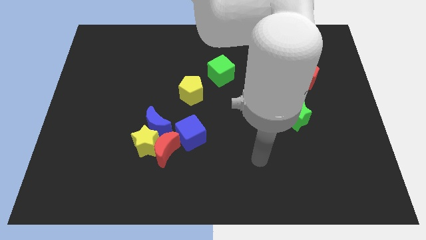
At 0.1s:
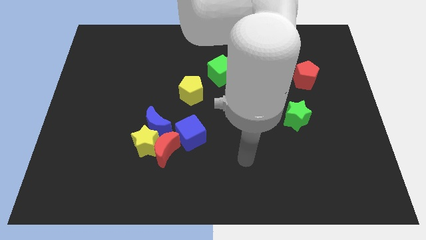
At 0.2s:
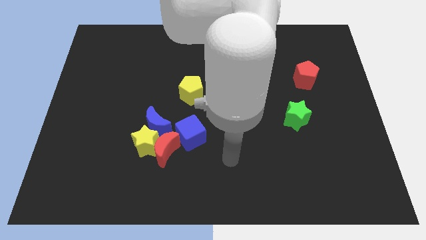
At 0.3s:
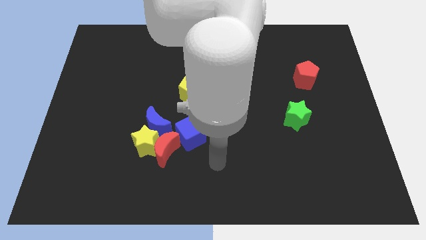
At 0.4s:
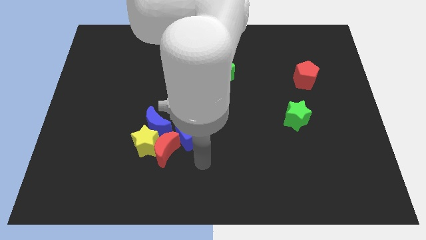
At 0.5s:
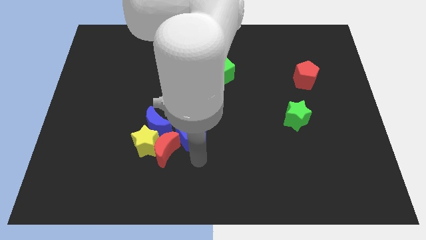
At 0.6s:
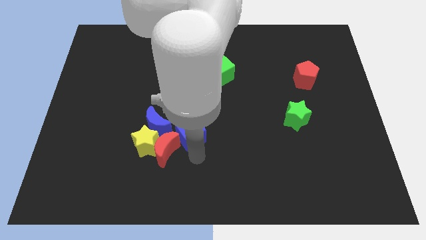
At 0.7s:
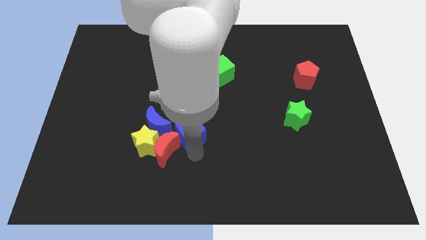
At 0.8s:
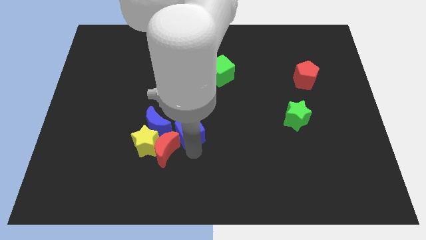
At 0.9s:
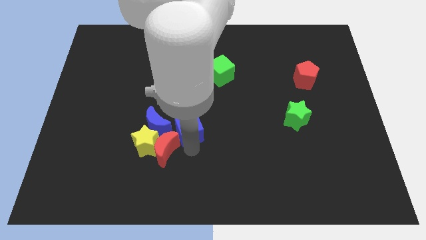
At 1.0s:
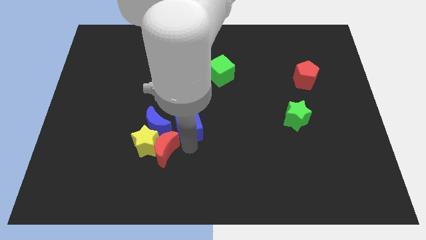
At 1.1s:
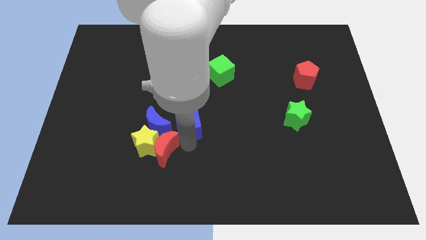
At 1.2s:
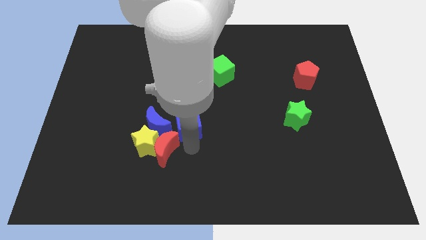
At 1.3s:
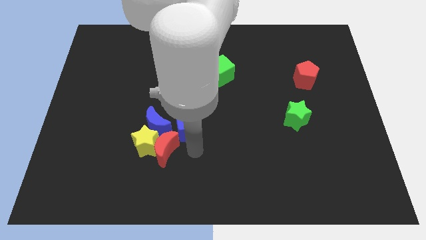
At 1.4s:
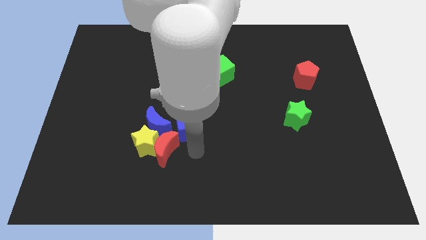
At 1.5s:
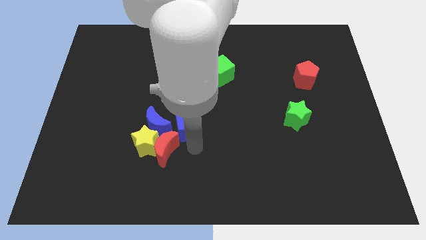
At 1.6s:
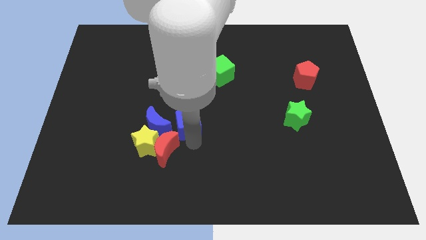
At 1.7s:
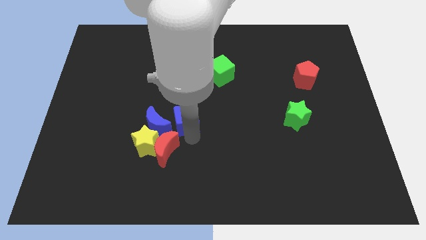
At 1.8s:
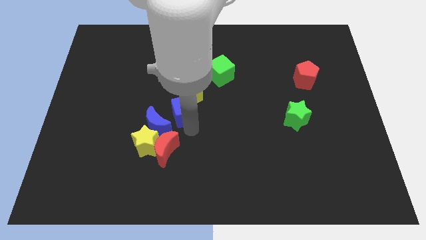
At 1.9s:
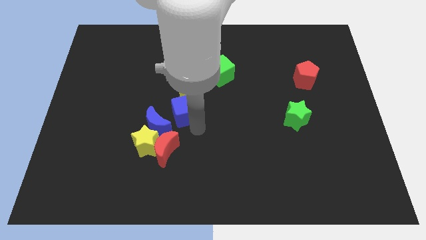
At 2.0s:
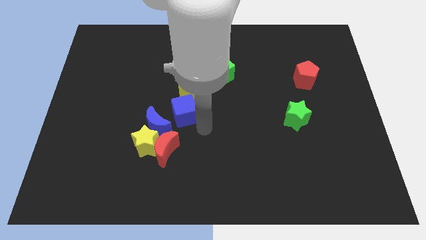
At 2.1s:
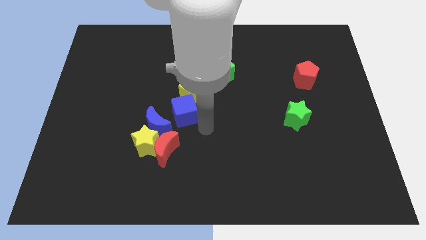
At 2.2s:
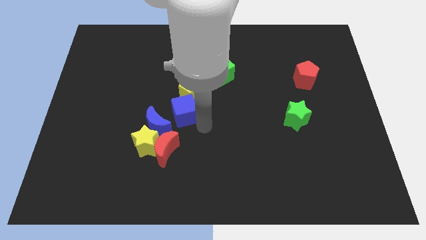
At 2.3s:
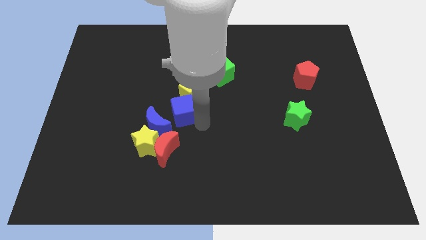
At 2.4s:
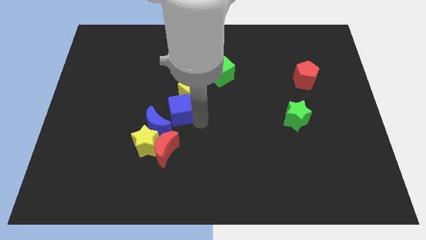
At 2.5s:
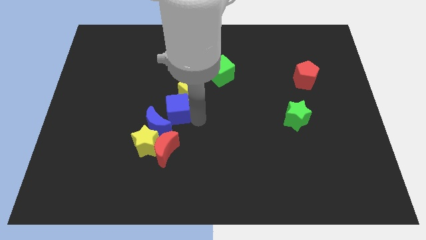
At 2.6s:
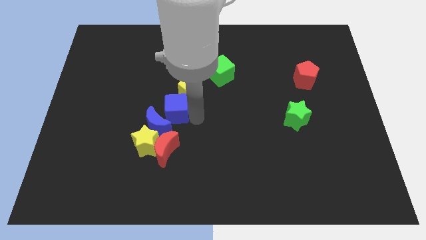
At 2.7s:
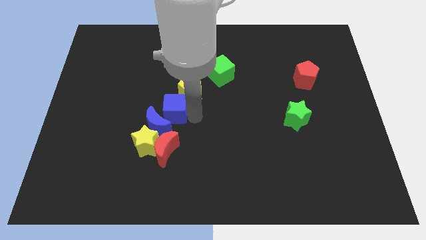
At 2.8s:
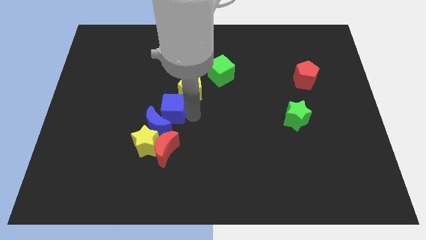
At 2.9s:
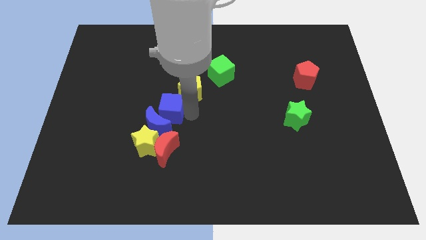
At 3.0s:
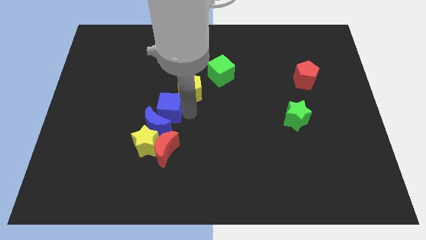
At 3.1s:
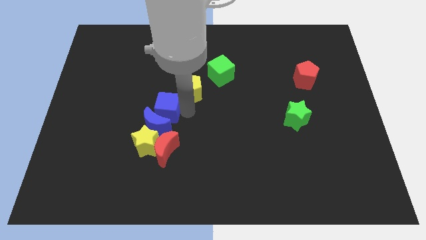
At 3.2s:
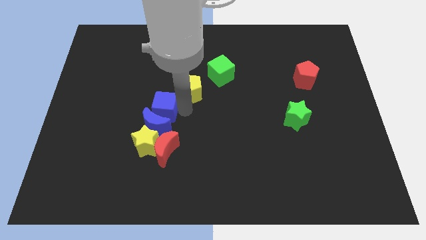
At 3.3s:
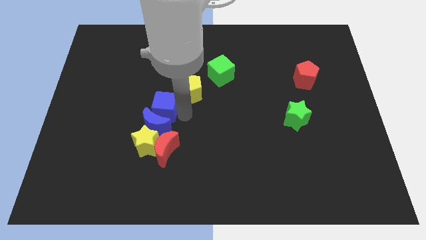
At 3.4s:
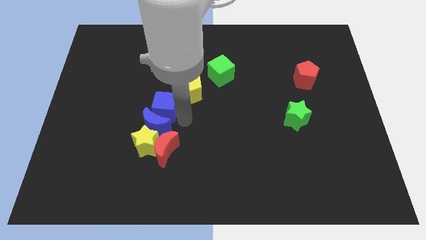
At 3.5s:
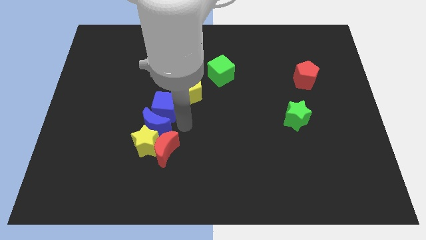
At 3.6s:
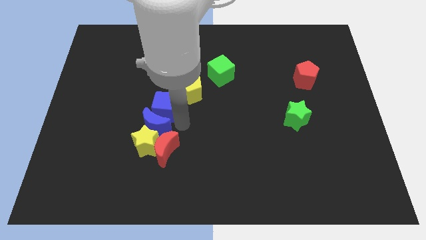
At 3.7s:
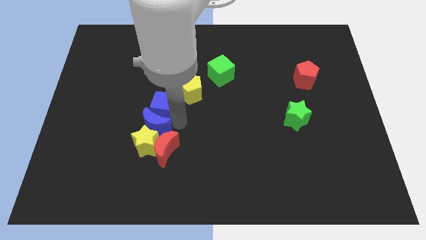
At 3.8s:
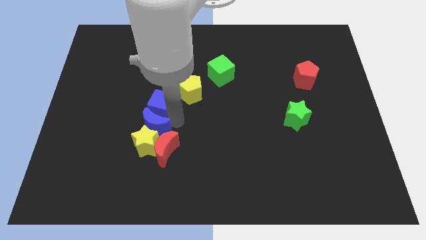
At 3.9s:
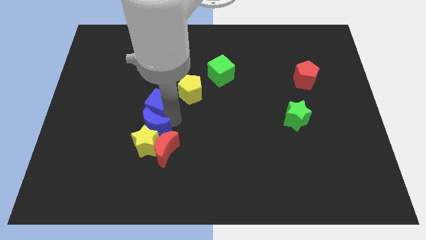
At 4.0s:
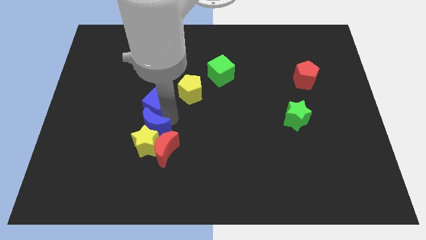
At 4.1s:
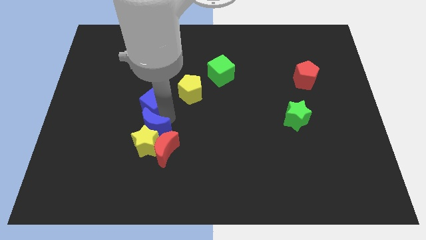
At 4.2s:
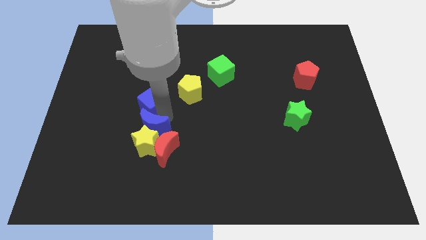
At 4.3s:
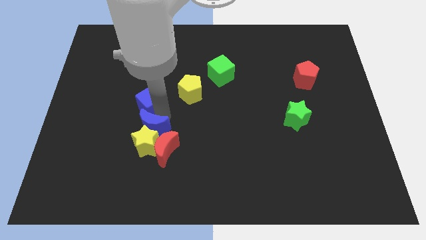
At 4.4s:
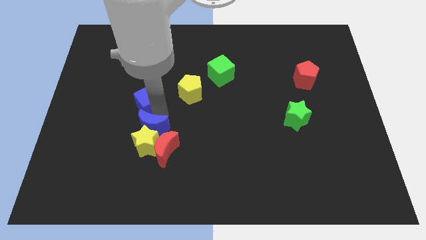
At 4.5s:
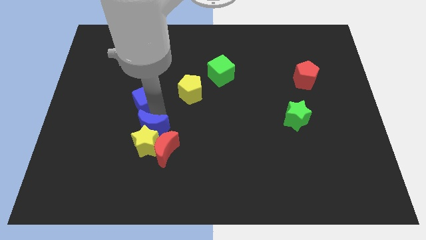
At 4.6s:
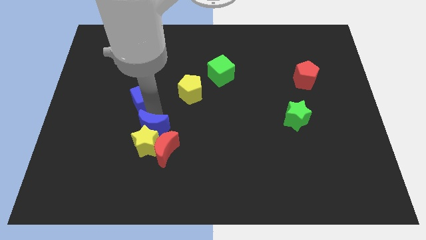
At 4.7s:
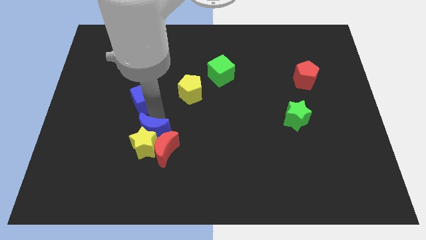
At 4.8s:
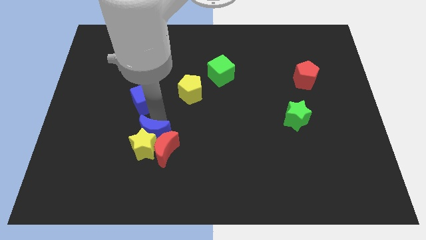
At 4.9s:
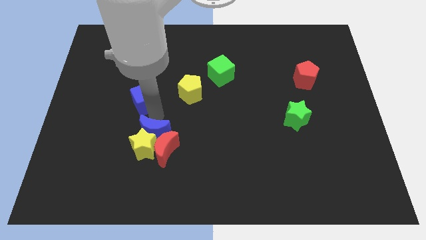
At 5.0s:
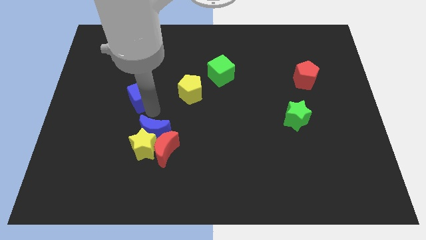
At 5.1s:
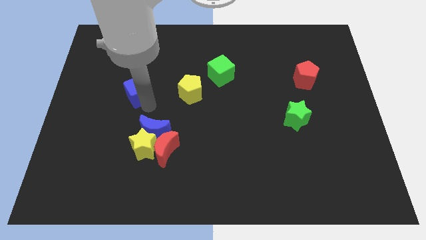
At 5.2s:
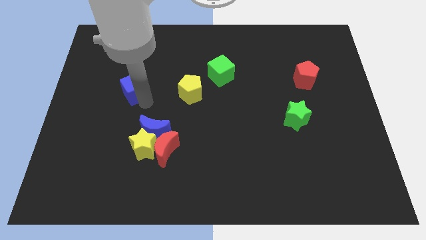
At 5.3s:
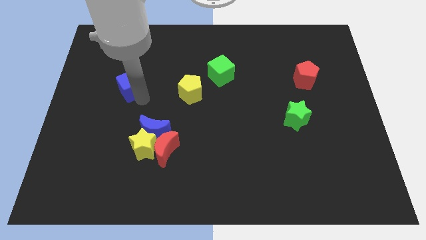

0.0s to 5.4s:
slide the blue cube diagonally up and left

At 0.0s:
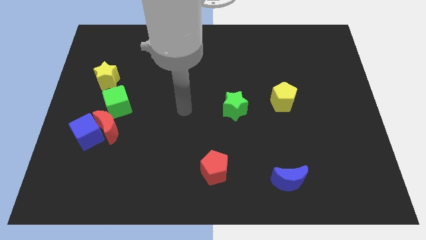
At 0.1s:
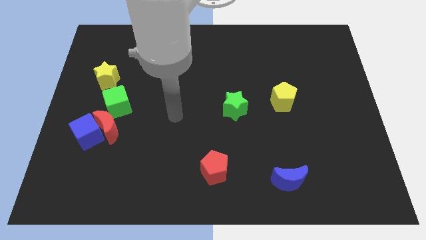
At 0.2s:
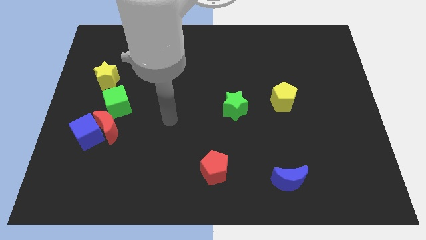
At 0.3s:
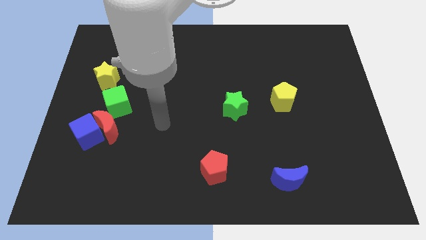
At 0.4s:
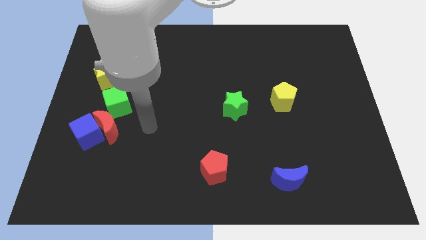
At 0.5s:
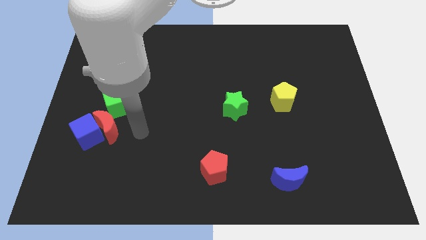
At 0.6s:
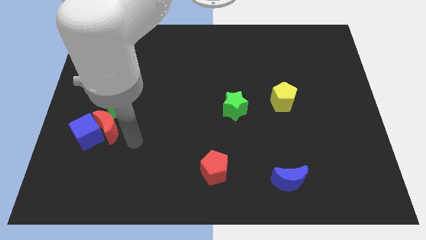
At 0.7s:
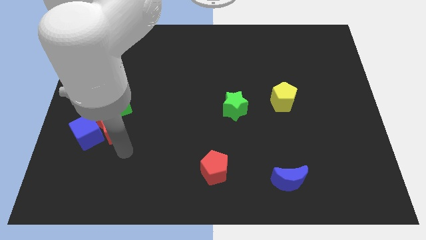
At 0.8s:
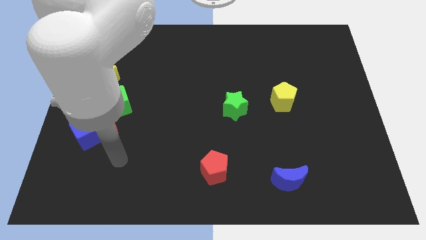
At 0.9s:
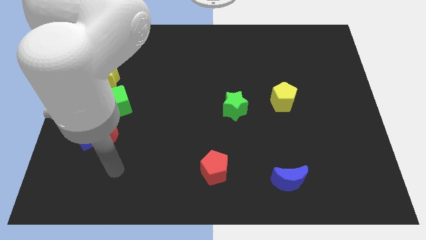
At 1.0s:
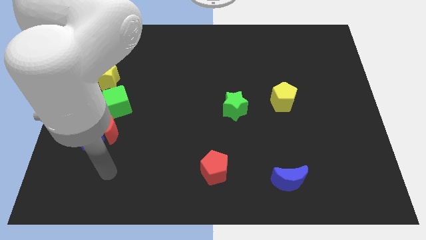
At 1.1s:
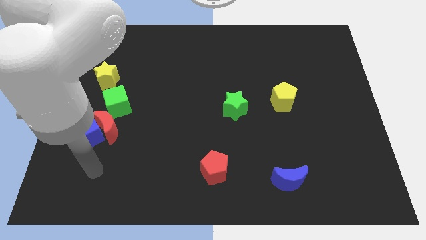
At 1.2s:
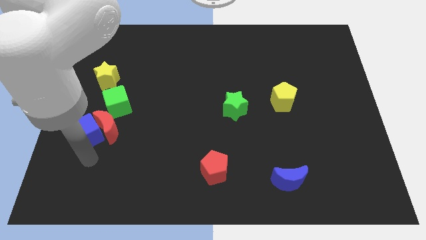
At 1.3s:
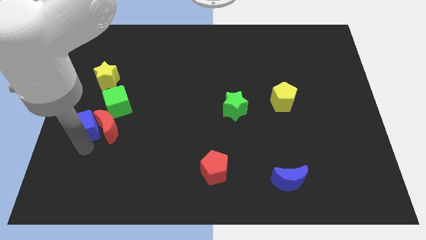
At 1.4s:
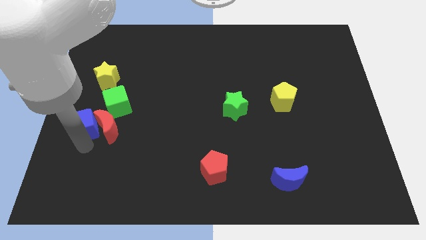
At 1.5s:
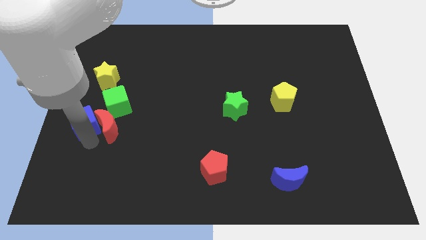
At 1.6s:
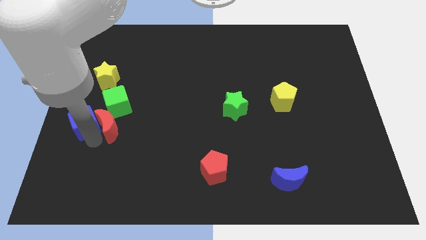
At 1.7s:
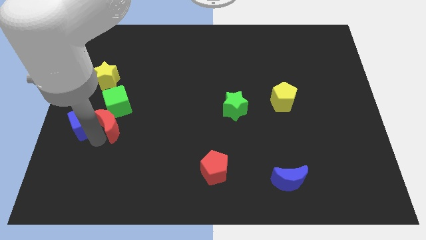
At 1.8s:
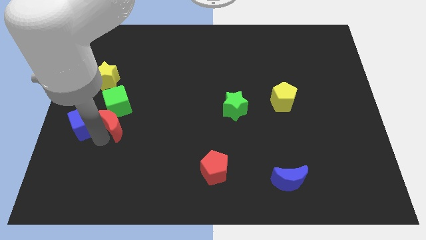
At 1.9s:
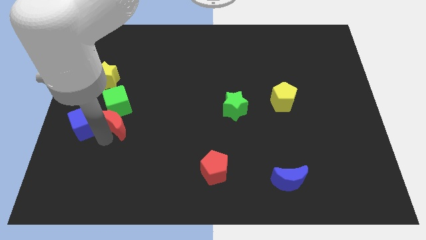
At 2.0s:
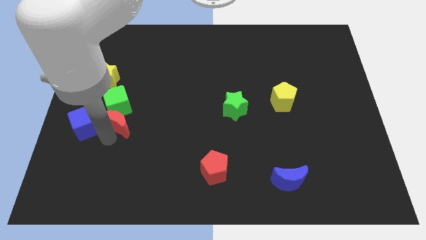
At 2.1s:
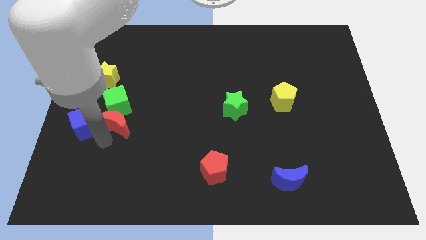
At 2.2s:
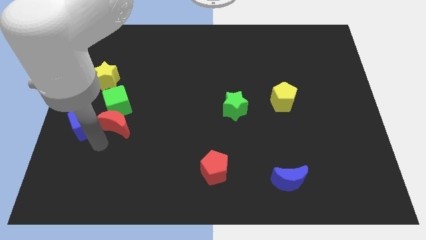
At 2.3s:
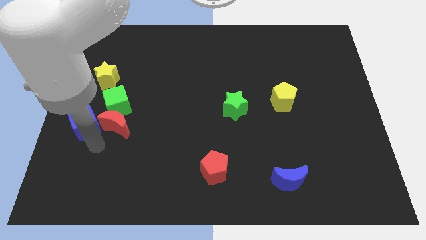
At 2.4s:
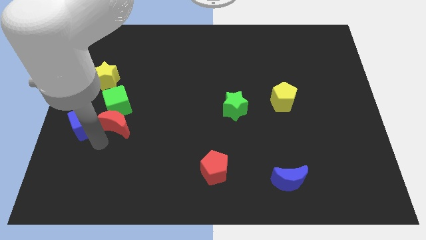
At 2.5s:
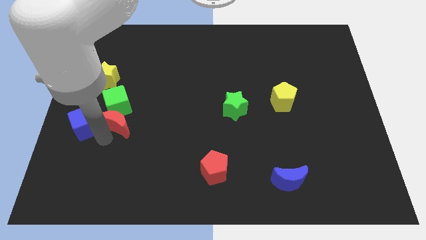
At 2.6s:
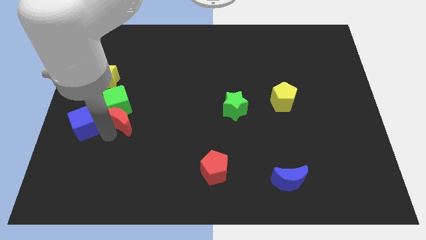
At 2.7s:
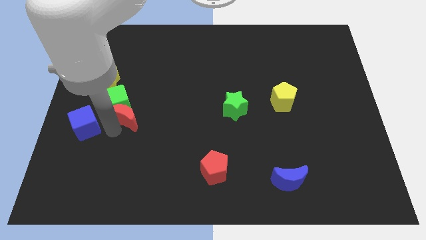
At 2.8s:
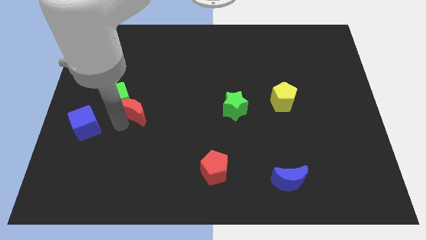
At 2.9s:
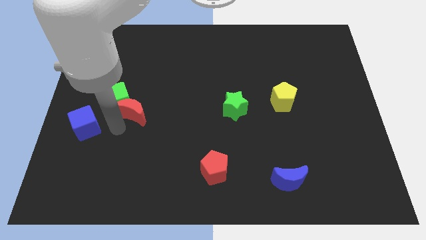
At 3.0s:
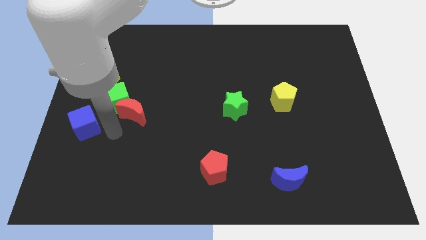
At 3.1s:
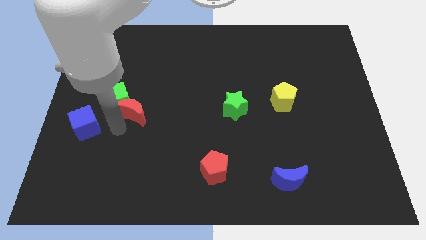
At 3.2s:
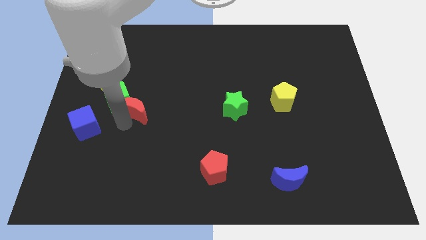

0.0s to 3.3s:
slightly slide the red moon up and right
